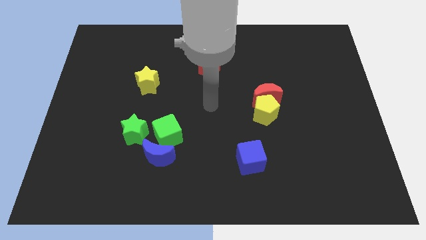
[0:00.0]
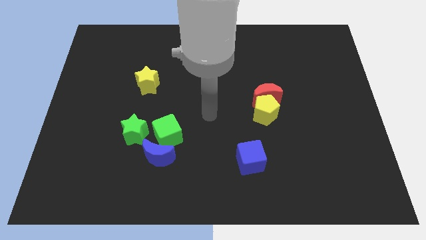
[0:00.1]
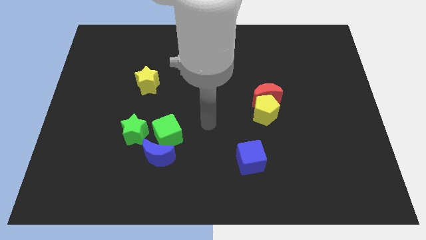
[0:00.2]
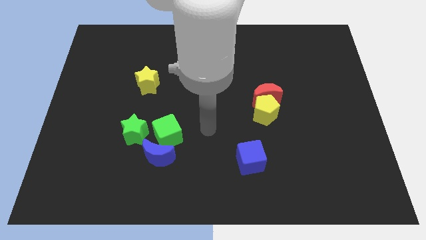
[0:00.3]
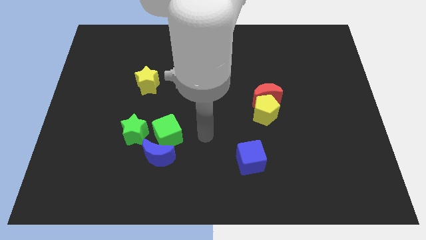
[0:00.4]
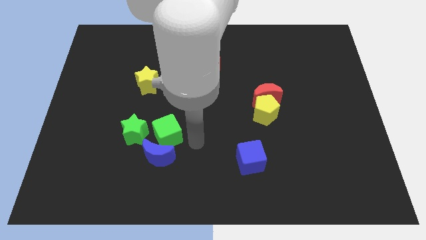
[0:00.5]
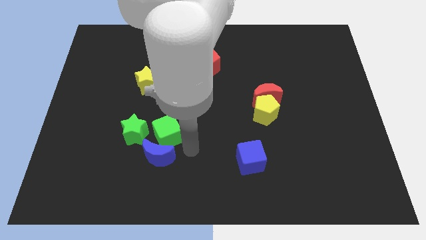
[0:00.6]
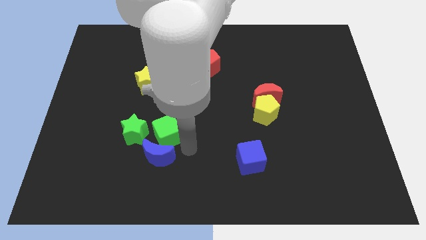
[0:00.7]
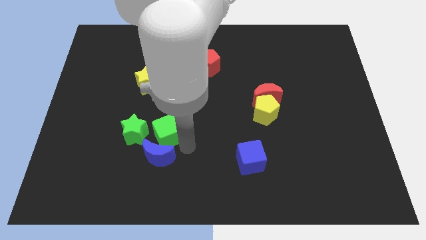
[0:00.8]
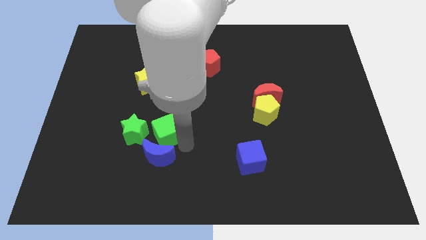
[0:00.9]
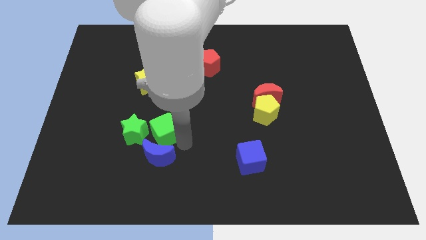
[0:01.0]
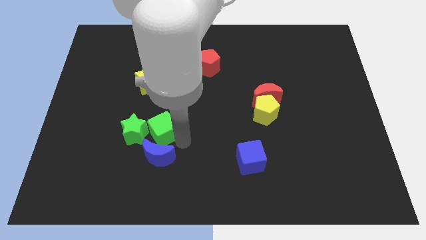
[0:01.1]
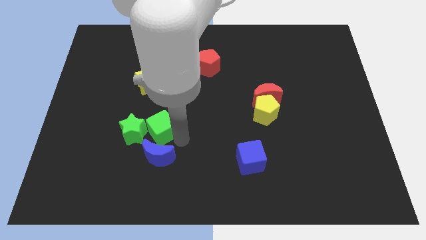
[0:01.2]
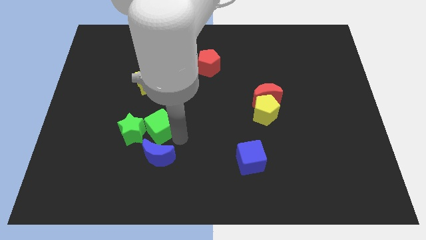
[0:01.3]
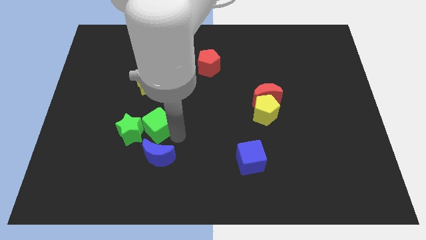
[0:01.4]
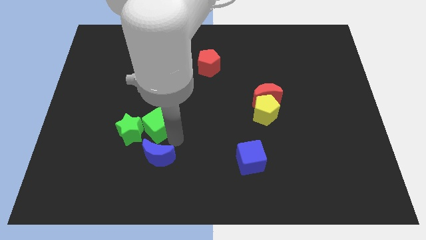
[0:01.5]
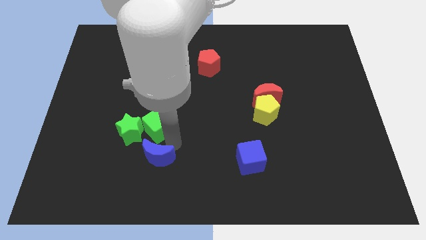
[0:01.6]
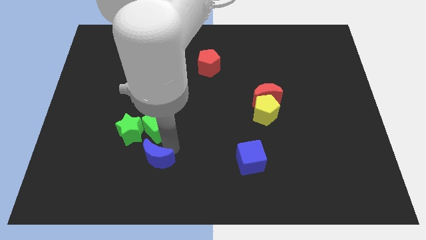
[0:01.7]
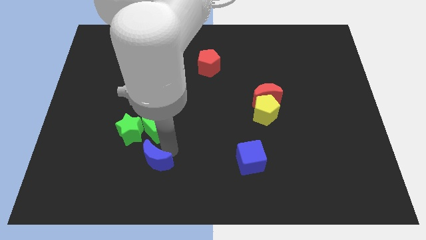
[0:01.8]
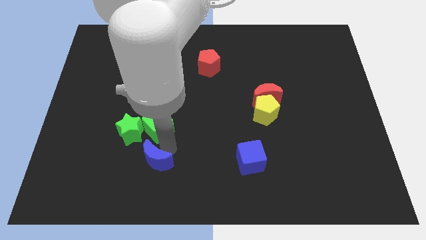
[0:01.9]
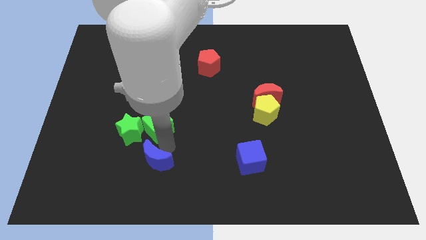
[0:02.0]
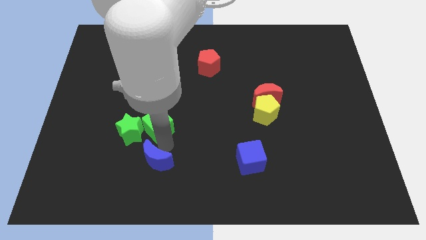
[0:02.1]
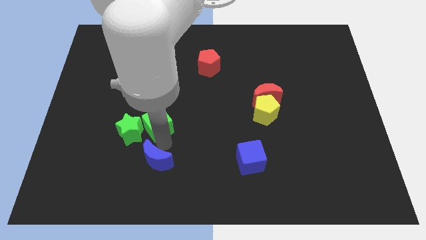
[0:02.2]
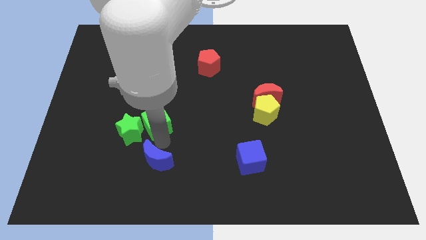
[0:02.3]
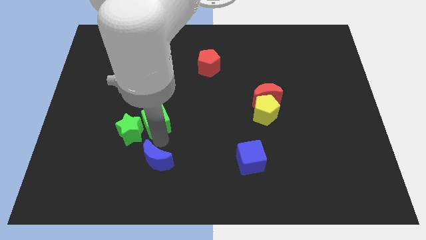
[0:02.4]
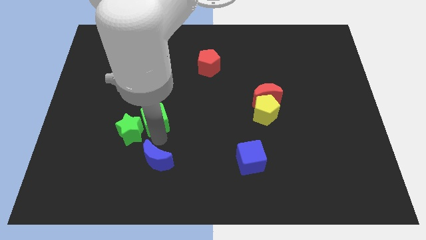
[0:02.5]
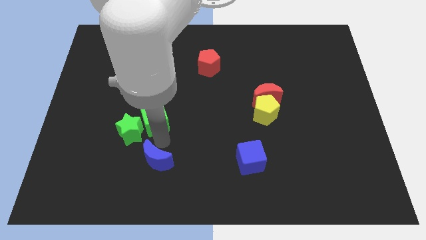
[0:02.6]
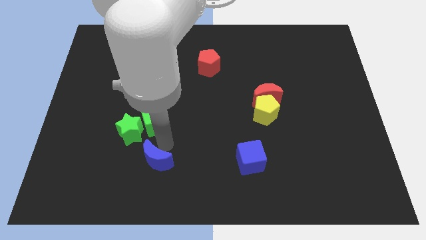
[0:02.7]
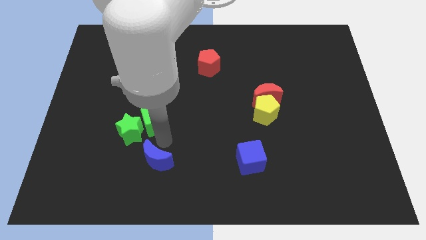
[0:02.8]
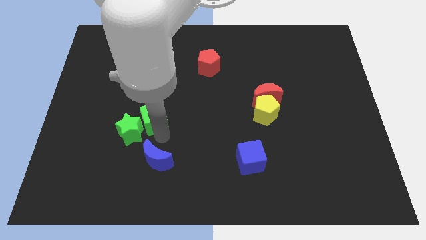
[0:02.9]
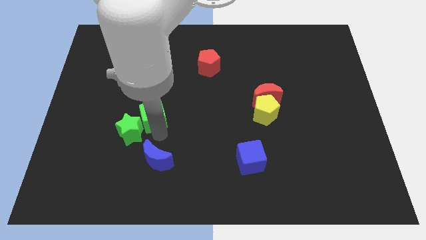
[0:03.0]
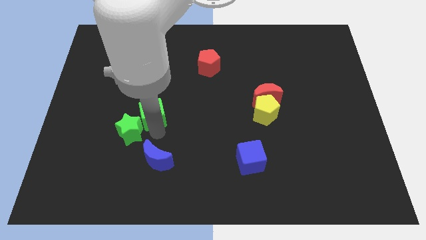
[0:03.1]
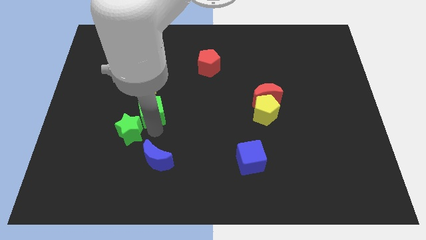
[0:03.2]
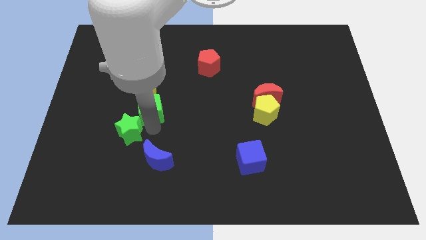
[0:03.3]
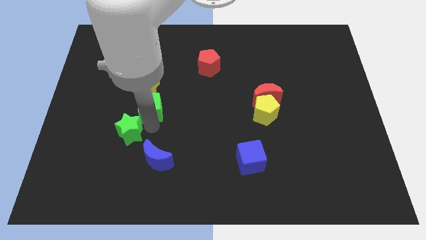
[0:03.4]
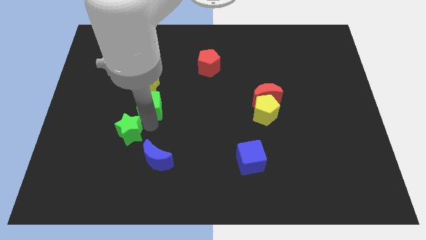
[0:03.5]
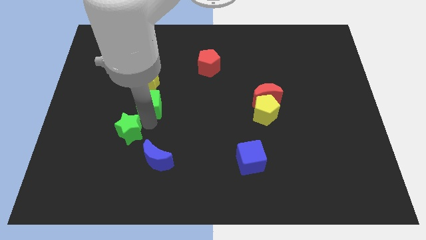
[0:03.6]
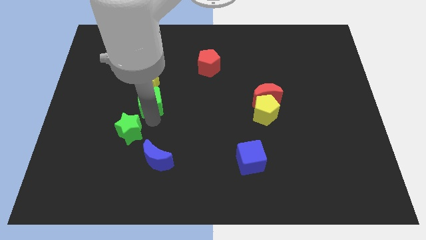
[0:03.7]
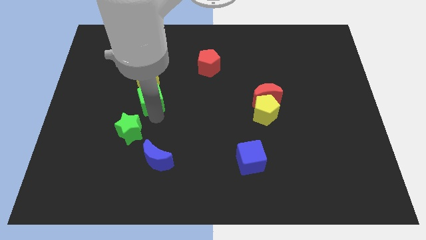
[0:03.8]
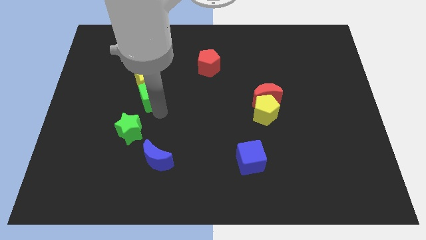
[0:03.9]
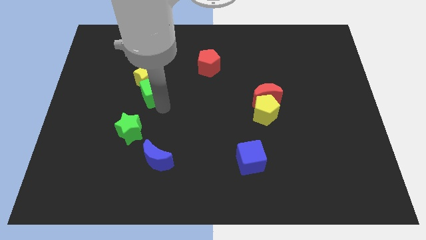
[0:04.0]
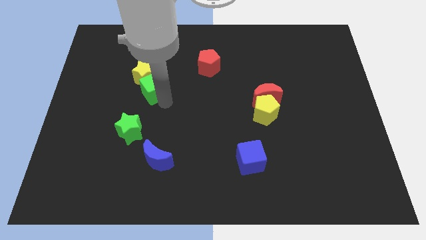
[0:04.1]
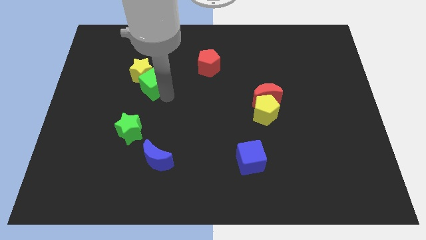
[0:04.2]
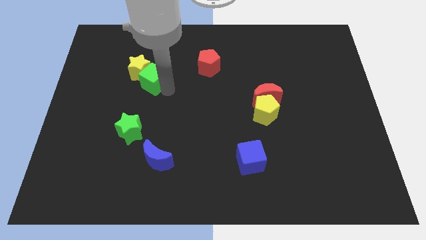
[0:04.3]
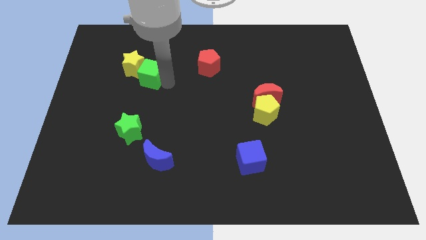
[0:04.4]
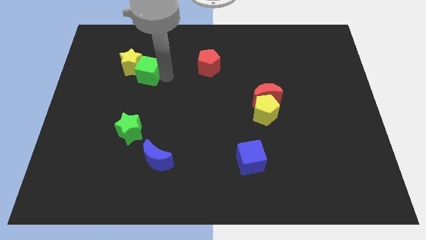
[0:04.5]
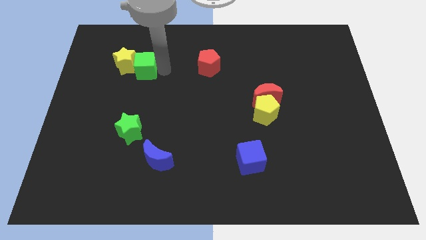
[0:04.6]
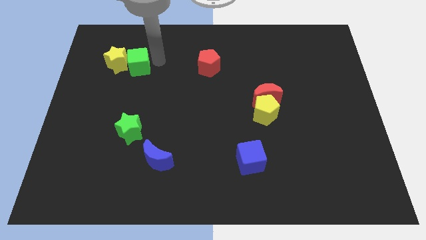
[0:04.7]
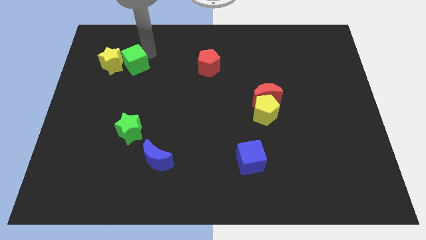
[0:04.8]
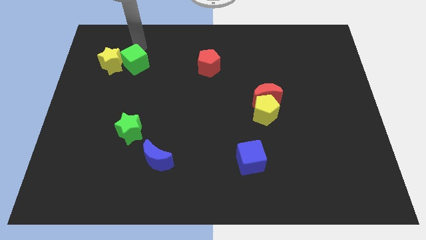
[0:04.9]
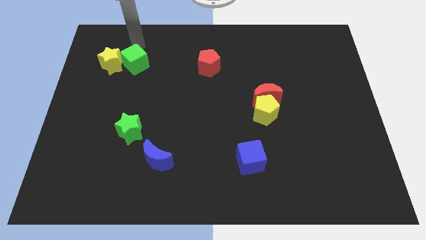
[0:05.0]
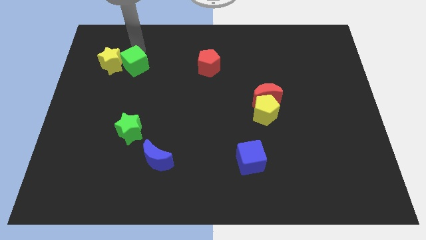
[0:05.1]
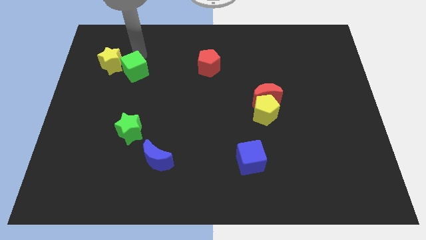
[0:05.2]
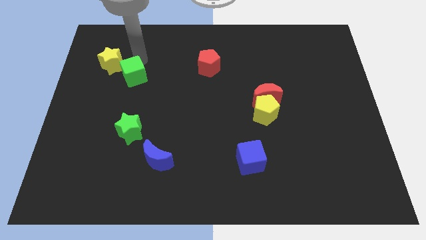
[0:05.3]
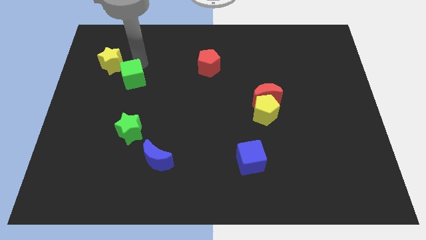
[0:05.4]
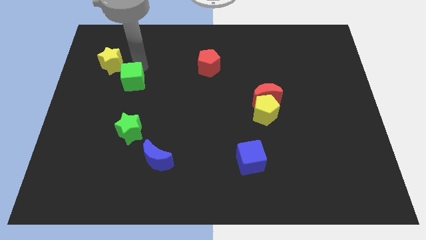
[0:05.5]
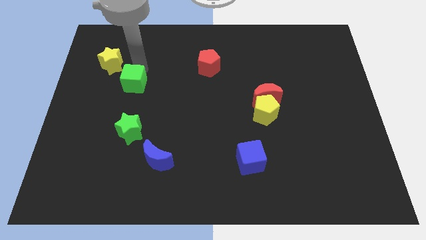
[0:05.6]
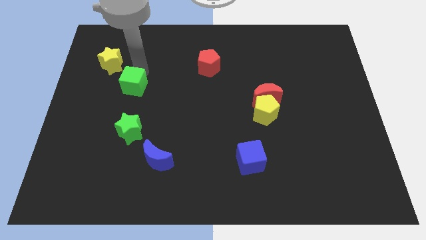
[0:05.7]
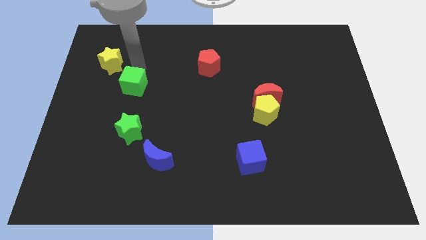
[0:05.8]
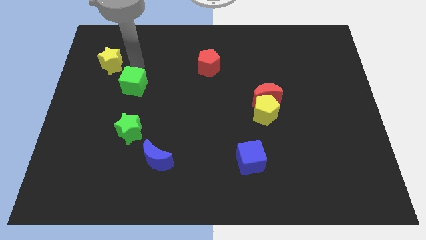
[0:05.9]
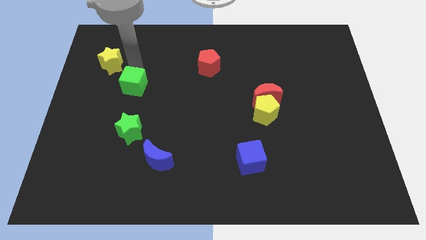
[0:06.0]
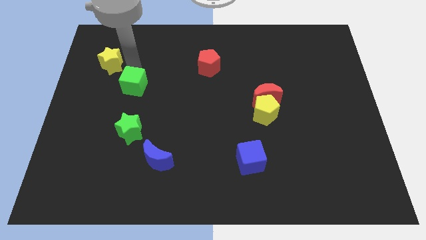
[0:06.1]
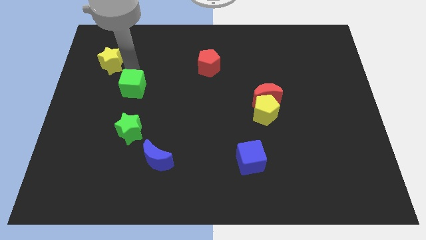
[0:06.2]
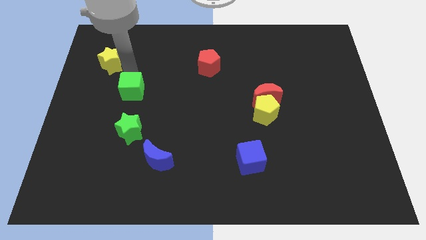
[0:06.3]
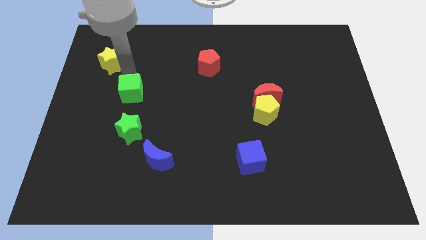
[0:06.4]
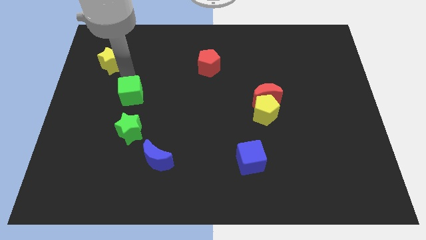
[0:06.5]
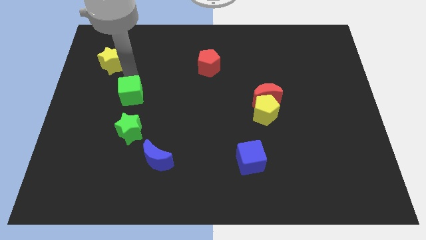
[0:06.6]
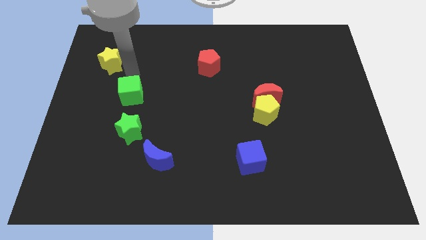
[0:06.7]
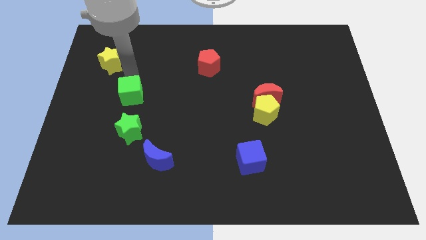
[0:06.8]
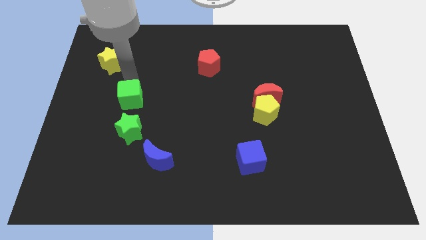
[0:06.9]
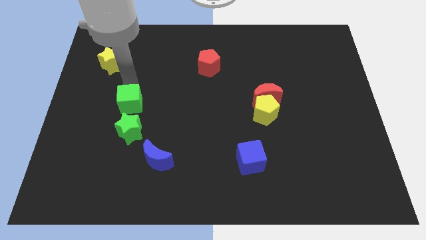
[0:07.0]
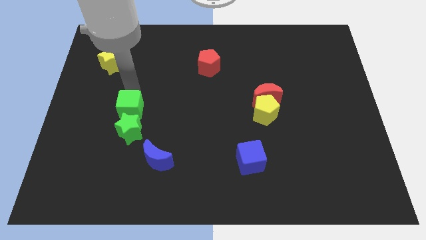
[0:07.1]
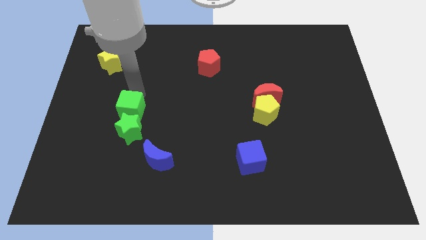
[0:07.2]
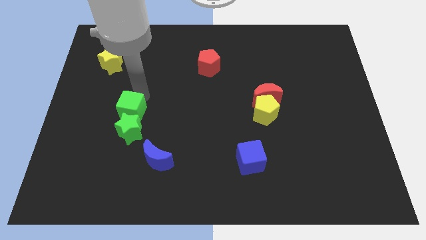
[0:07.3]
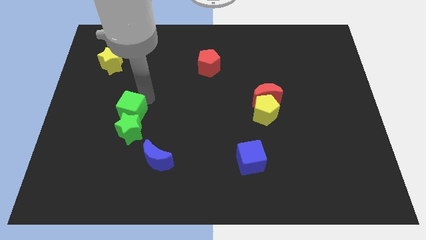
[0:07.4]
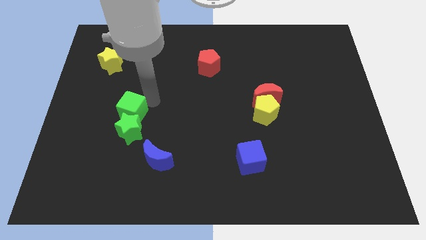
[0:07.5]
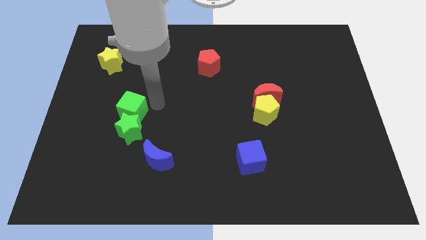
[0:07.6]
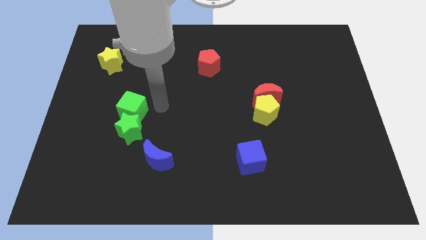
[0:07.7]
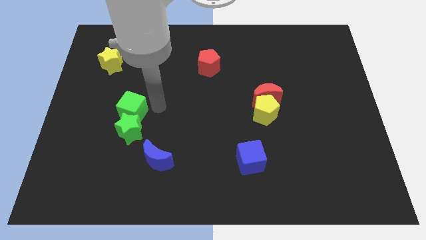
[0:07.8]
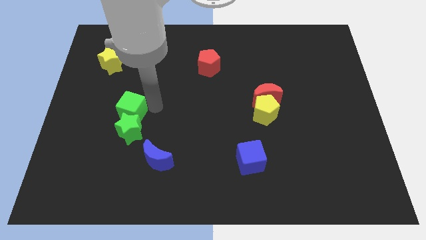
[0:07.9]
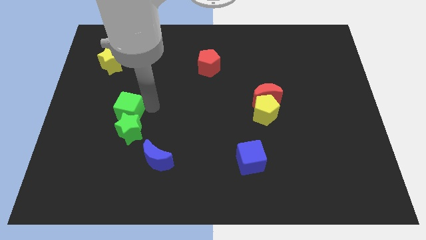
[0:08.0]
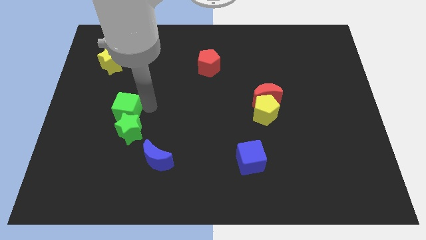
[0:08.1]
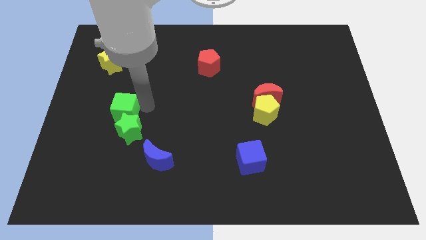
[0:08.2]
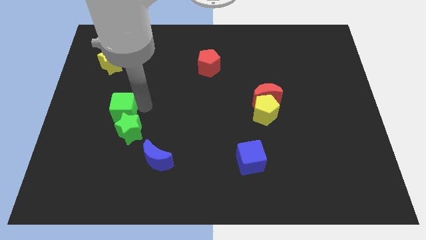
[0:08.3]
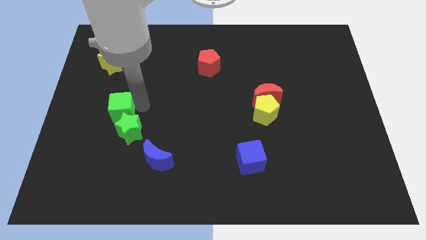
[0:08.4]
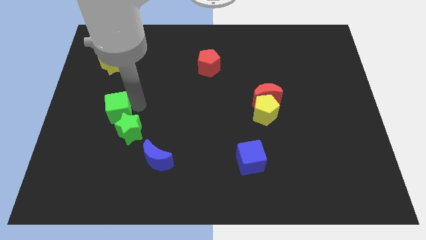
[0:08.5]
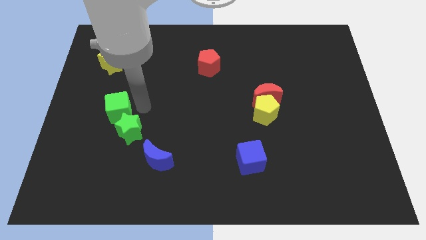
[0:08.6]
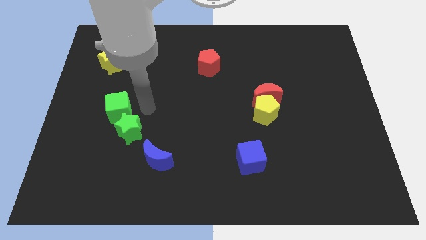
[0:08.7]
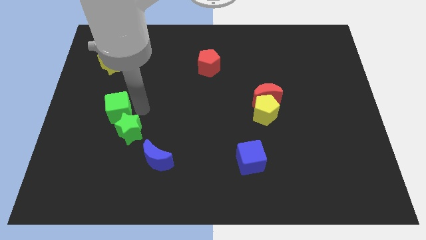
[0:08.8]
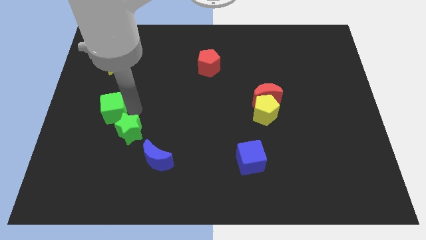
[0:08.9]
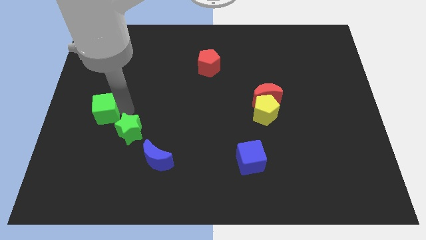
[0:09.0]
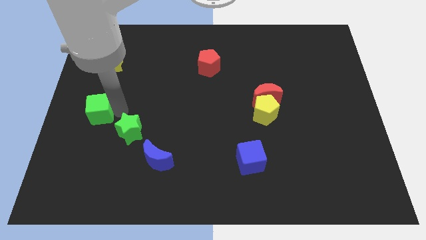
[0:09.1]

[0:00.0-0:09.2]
slide the green cube to the center left
